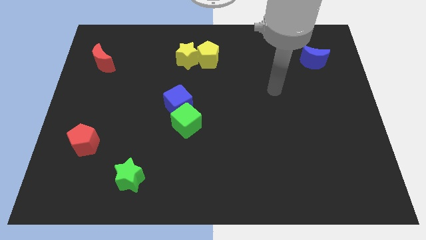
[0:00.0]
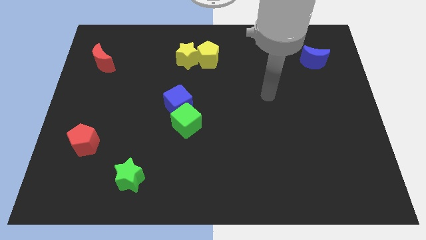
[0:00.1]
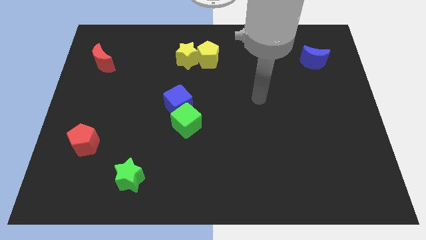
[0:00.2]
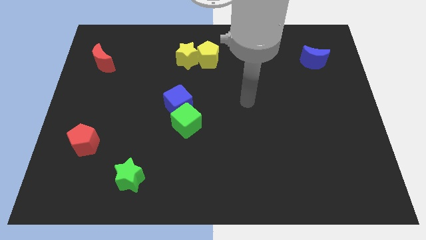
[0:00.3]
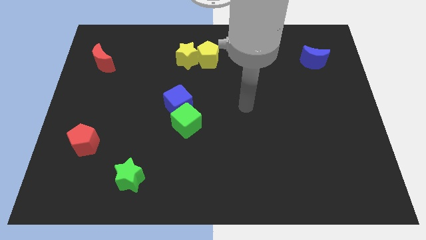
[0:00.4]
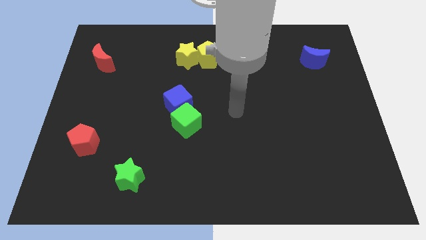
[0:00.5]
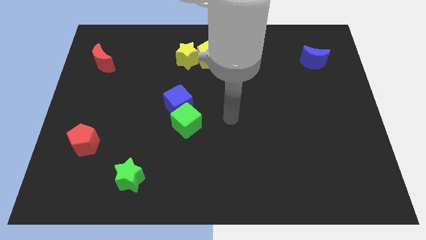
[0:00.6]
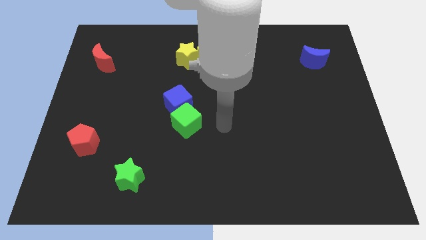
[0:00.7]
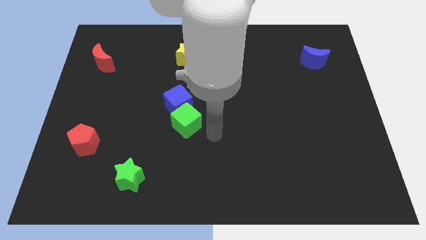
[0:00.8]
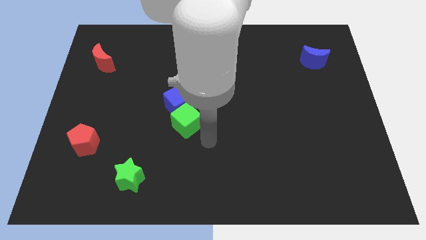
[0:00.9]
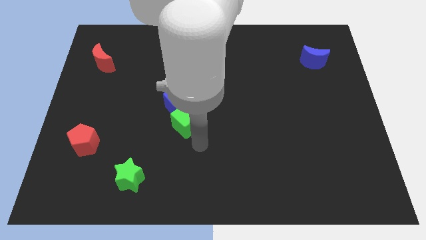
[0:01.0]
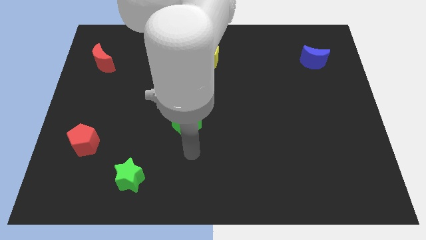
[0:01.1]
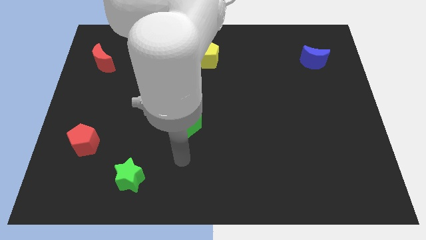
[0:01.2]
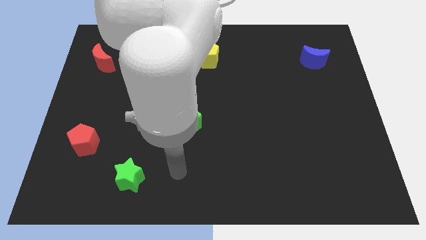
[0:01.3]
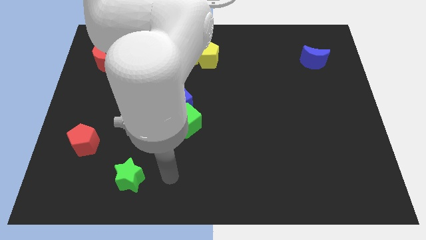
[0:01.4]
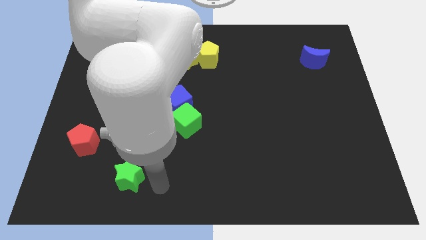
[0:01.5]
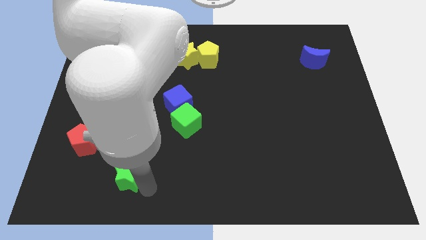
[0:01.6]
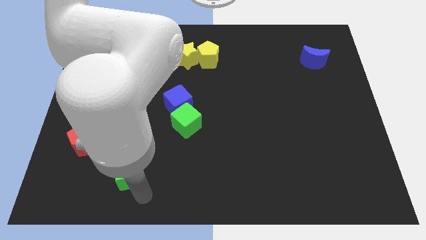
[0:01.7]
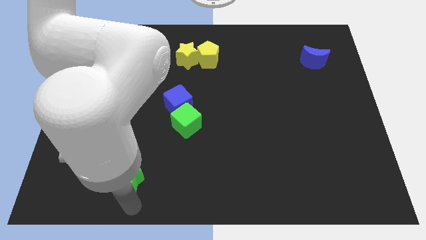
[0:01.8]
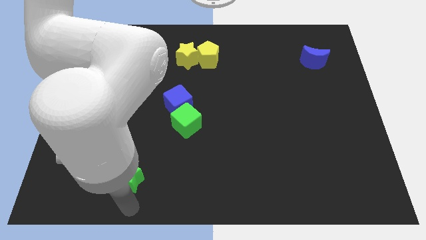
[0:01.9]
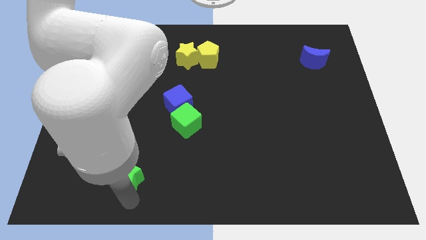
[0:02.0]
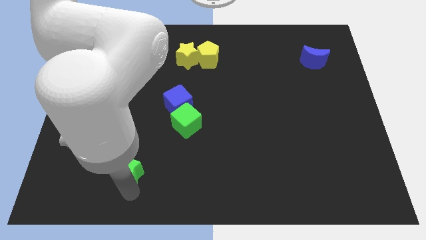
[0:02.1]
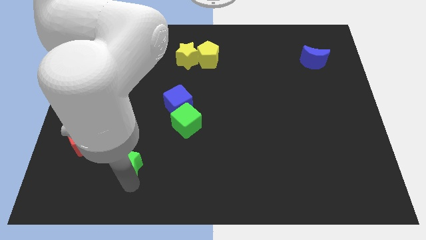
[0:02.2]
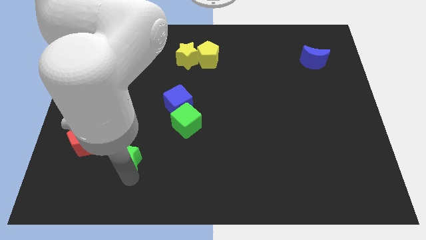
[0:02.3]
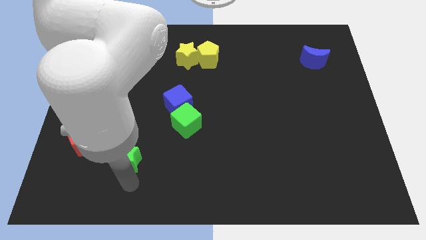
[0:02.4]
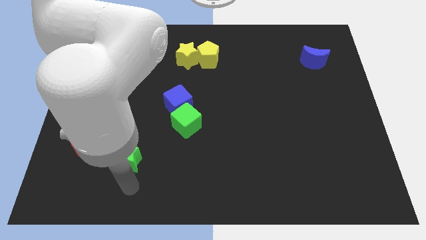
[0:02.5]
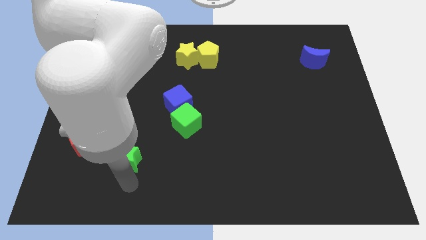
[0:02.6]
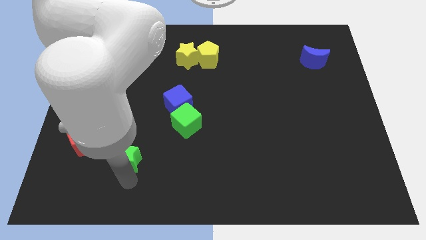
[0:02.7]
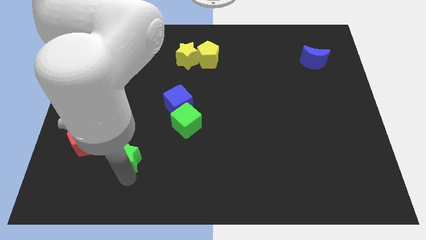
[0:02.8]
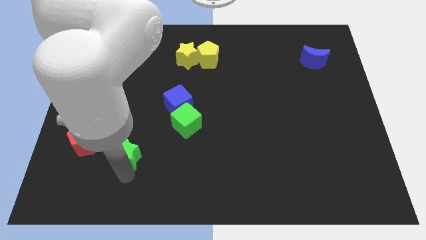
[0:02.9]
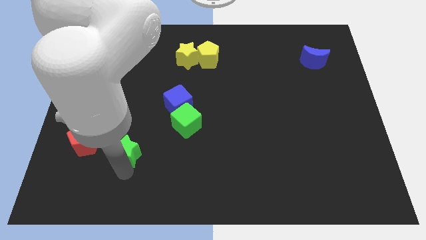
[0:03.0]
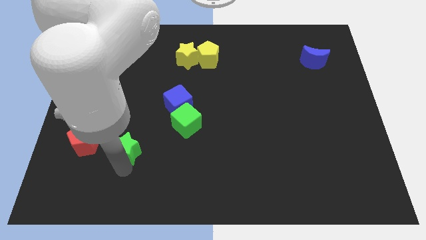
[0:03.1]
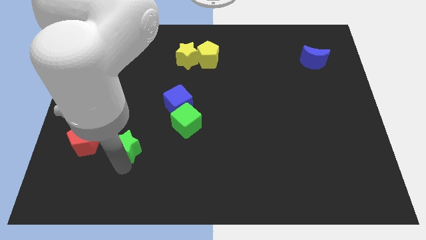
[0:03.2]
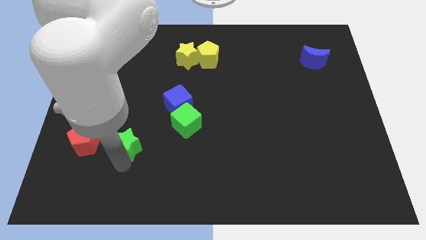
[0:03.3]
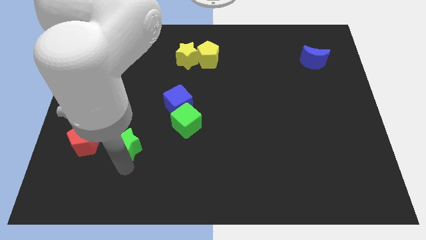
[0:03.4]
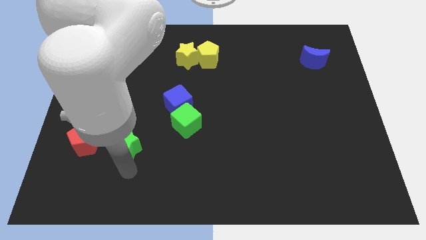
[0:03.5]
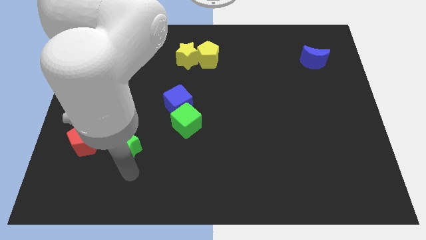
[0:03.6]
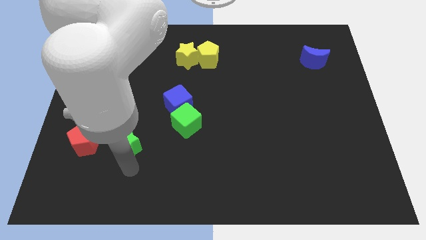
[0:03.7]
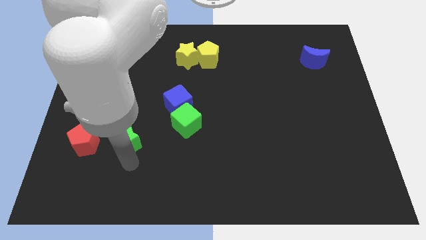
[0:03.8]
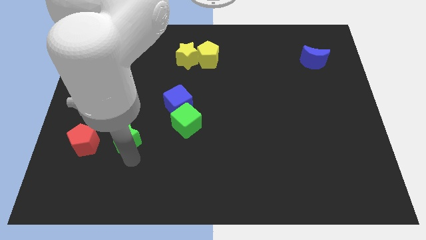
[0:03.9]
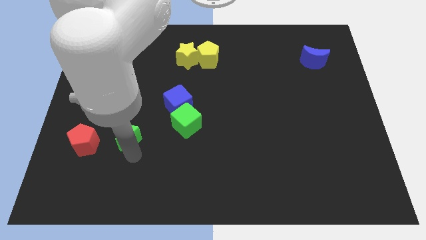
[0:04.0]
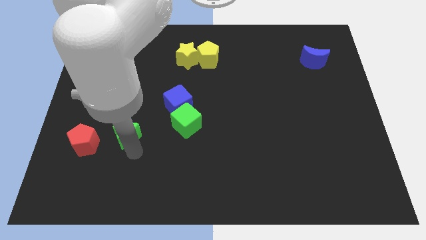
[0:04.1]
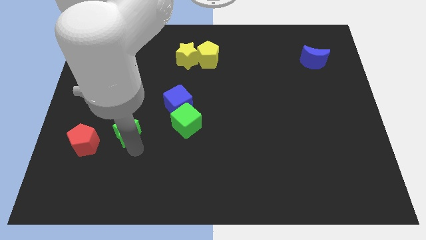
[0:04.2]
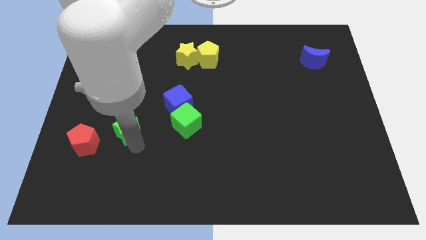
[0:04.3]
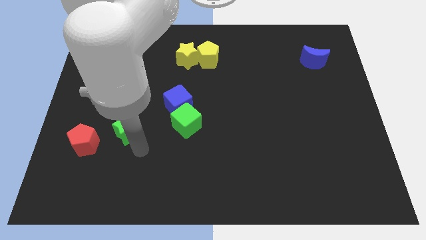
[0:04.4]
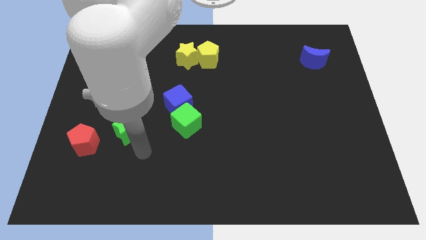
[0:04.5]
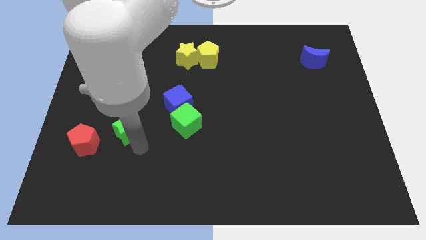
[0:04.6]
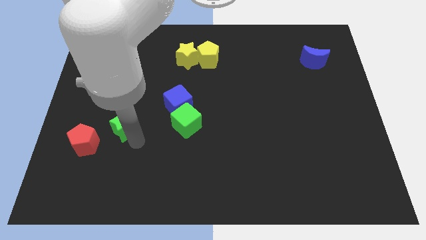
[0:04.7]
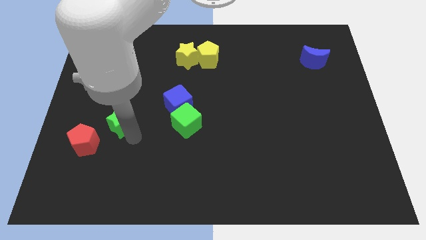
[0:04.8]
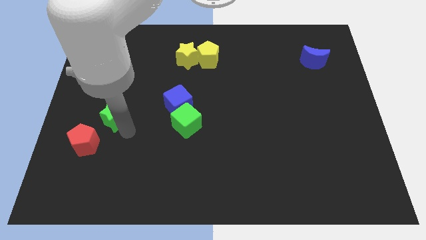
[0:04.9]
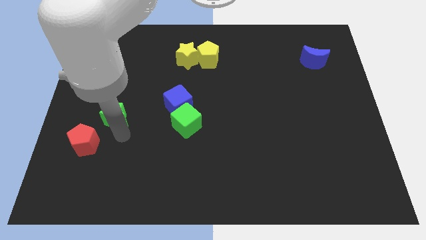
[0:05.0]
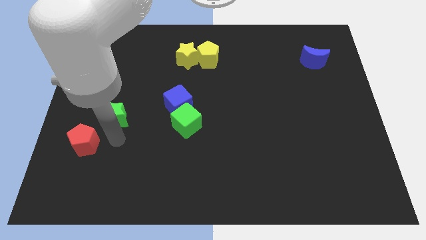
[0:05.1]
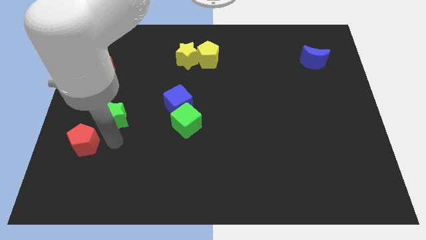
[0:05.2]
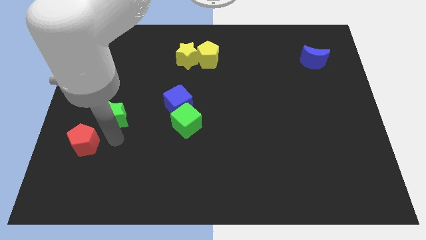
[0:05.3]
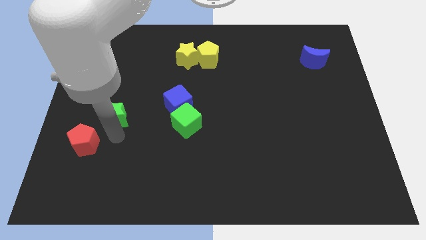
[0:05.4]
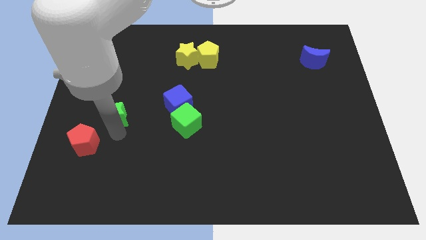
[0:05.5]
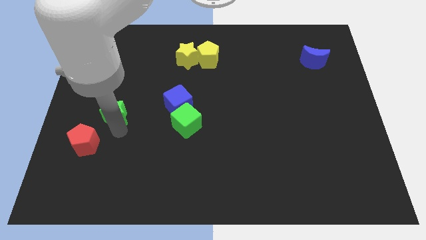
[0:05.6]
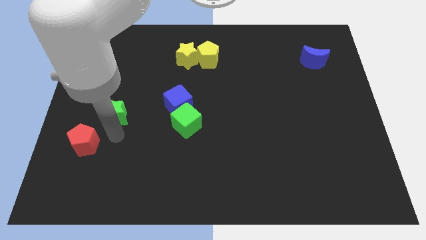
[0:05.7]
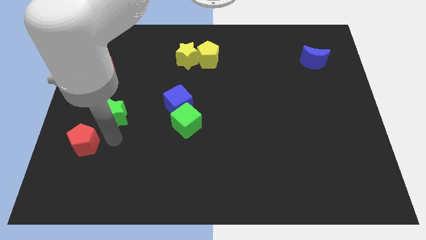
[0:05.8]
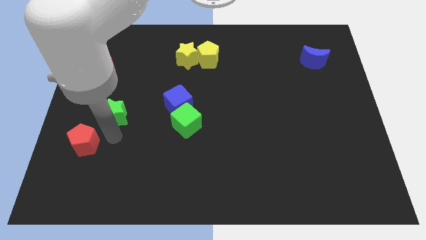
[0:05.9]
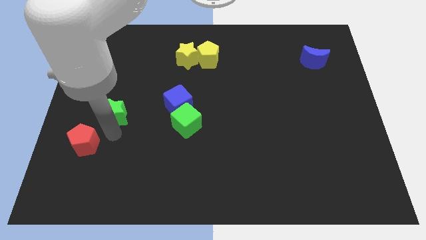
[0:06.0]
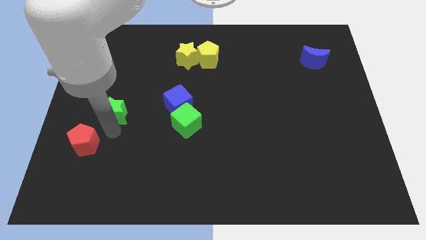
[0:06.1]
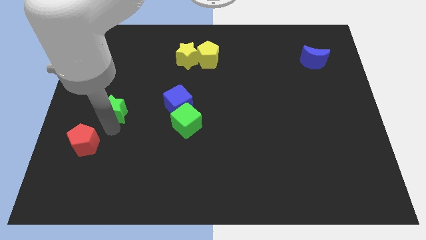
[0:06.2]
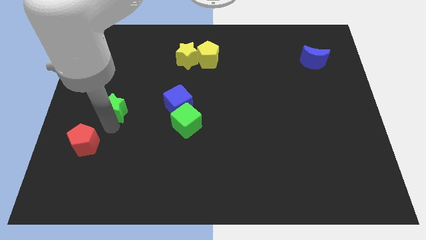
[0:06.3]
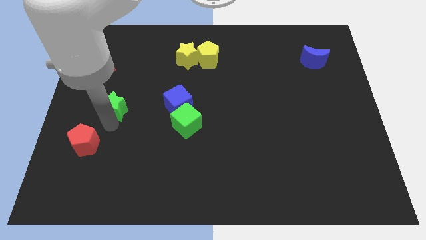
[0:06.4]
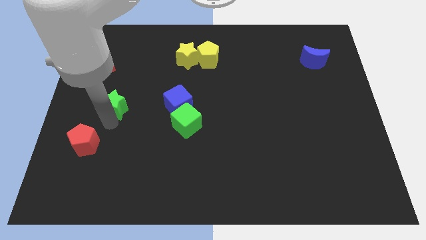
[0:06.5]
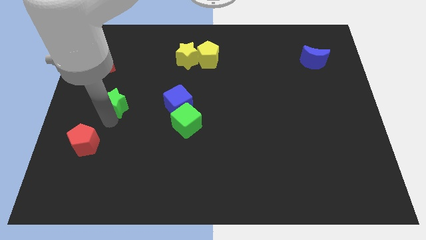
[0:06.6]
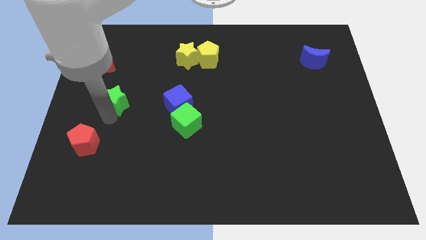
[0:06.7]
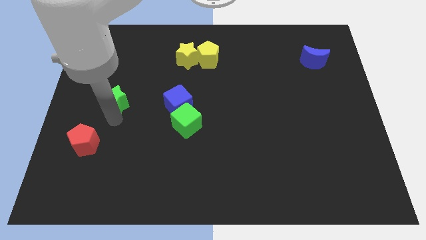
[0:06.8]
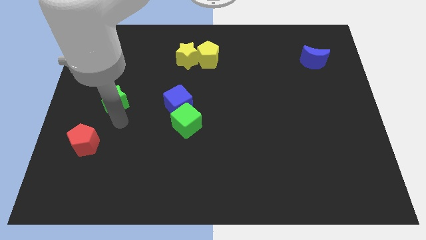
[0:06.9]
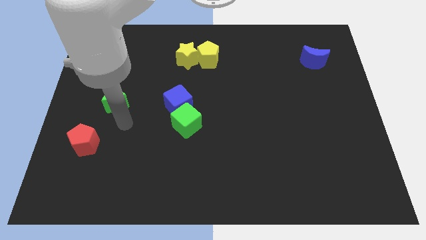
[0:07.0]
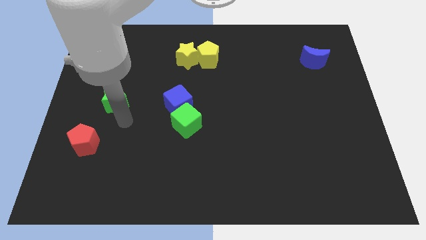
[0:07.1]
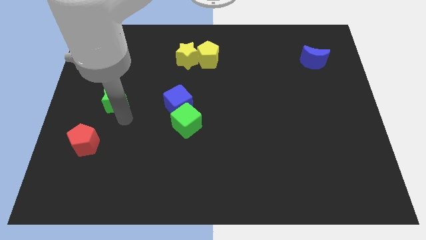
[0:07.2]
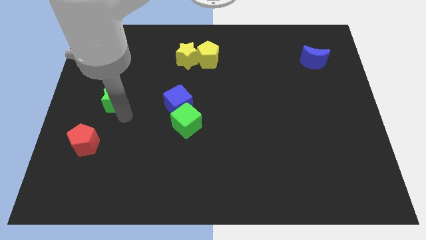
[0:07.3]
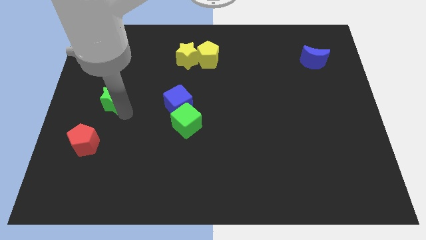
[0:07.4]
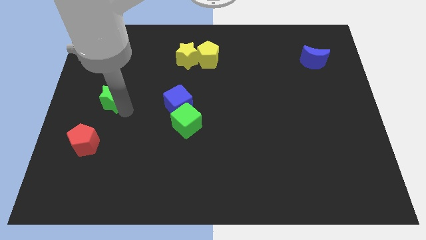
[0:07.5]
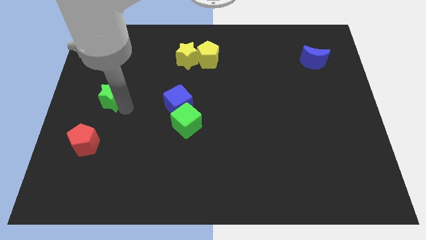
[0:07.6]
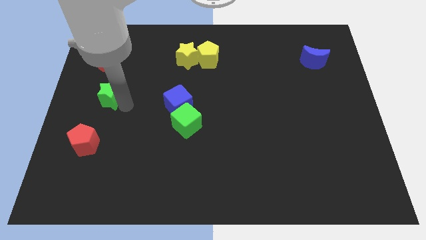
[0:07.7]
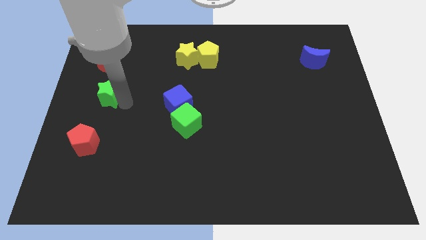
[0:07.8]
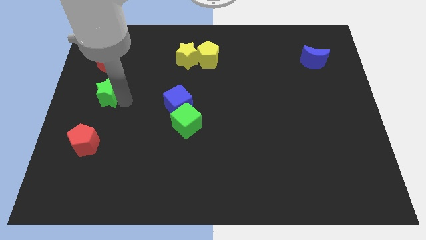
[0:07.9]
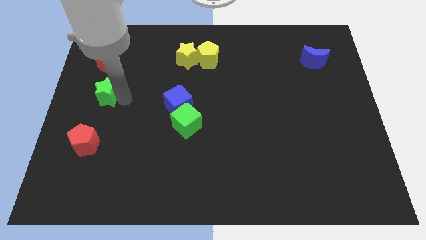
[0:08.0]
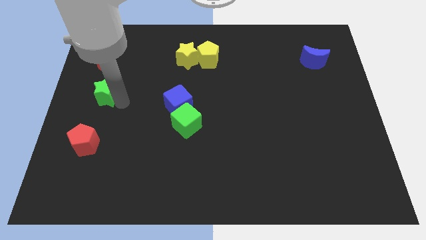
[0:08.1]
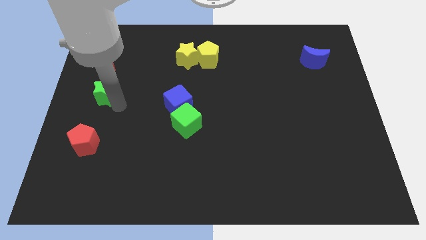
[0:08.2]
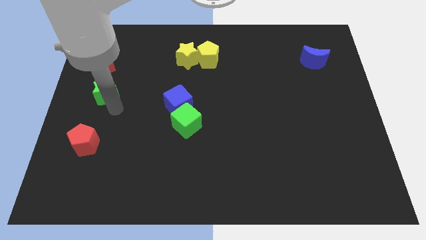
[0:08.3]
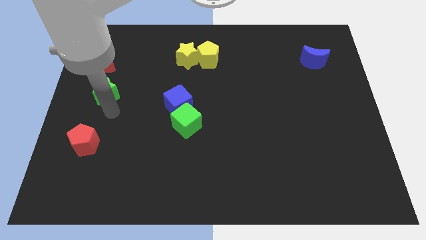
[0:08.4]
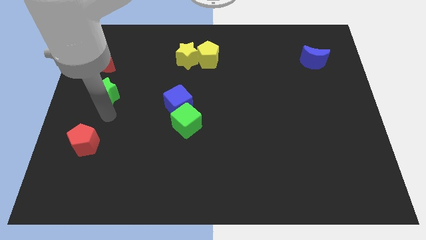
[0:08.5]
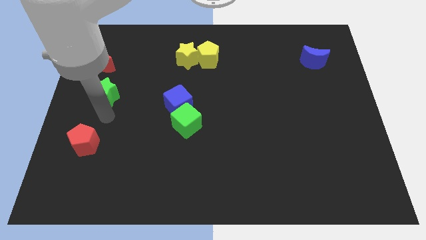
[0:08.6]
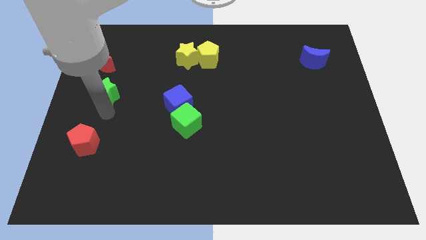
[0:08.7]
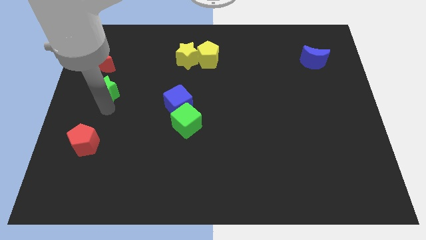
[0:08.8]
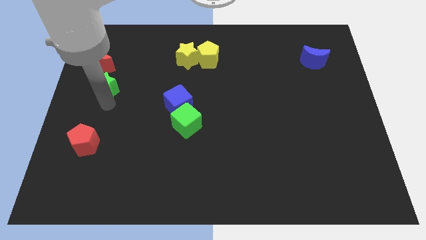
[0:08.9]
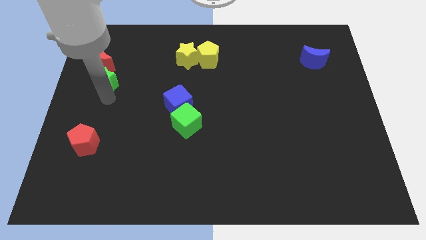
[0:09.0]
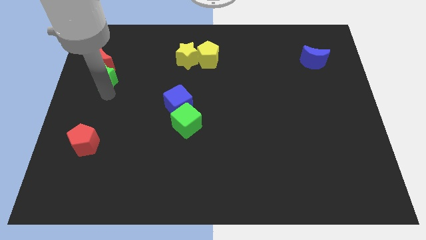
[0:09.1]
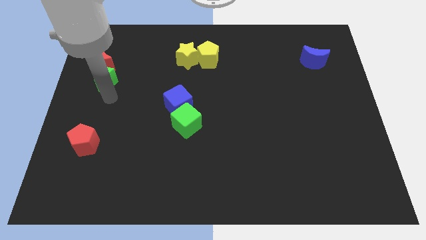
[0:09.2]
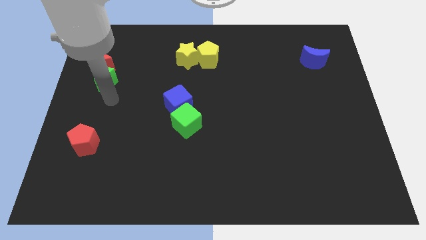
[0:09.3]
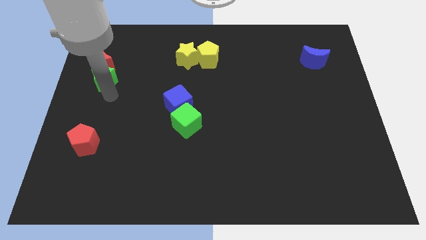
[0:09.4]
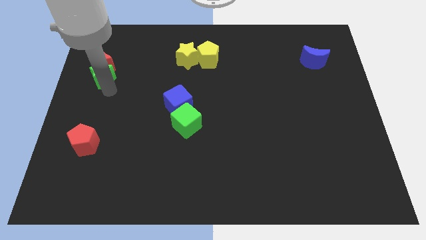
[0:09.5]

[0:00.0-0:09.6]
push the green star close to the red moon
